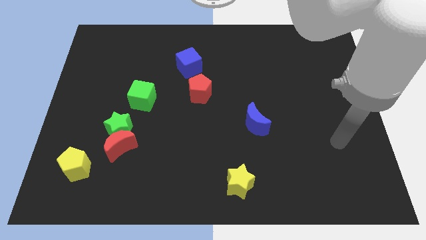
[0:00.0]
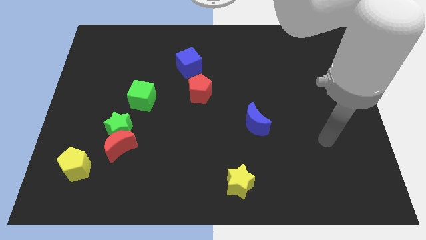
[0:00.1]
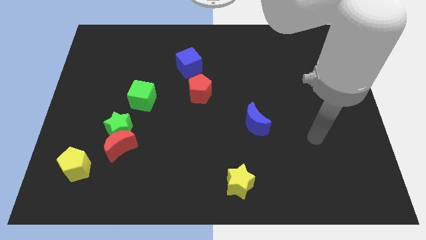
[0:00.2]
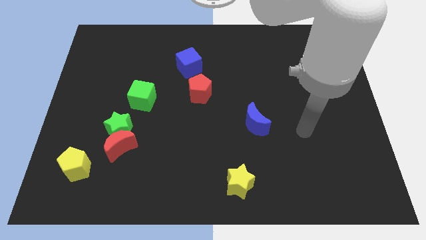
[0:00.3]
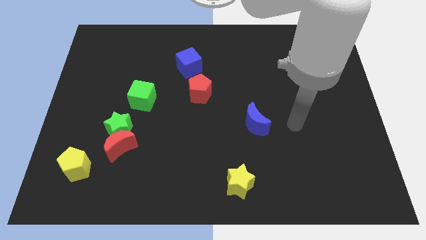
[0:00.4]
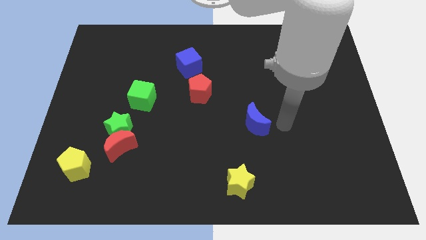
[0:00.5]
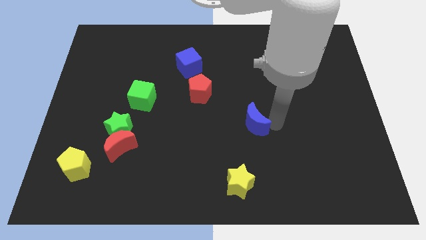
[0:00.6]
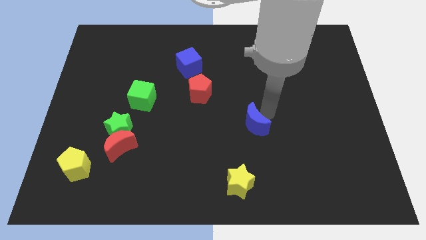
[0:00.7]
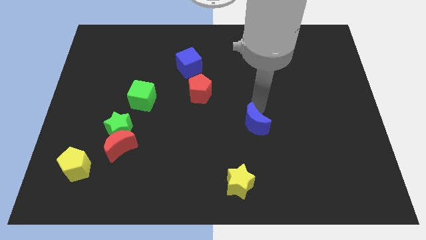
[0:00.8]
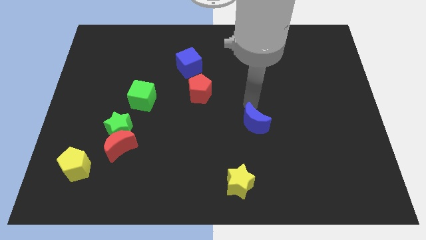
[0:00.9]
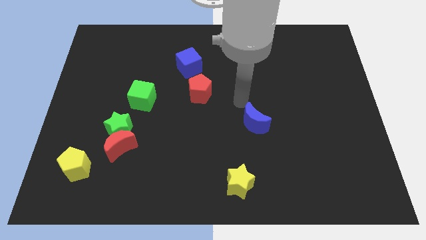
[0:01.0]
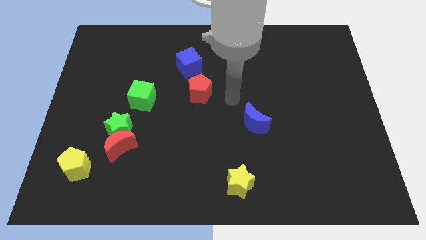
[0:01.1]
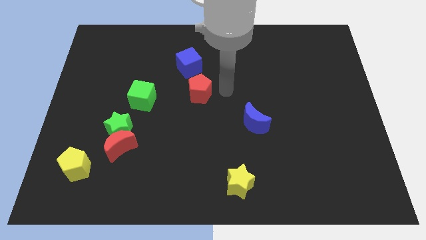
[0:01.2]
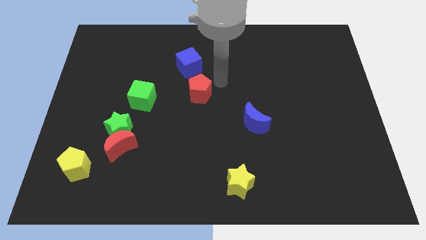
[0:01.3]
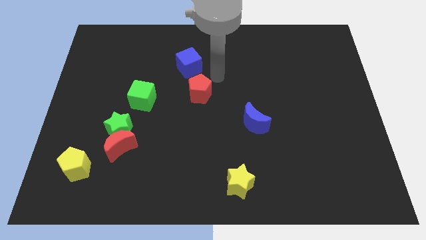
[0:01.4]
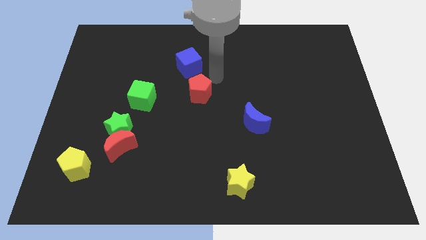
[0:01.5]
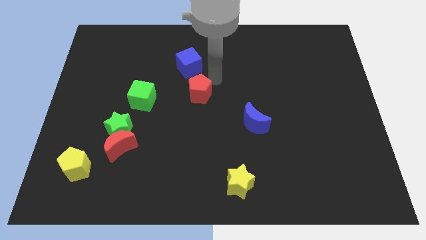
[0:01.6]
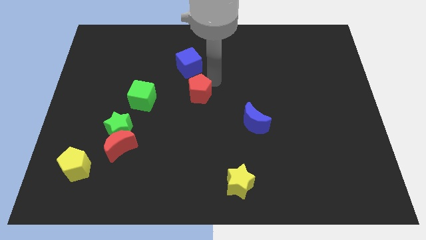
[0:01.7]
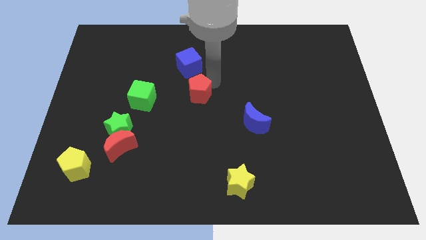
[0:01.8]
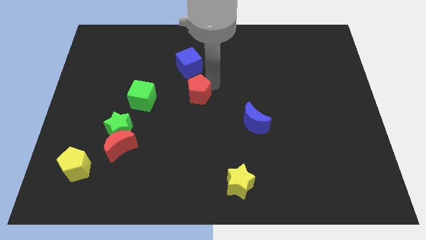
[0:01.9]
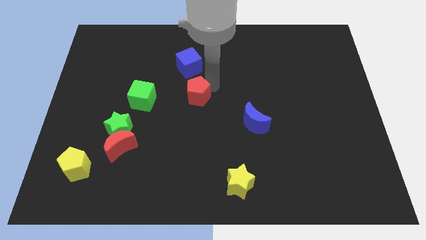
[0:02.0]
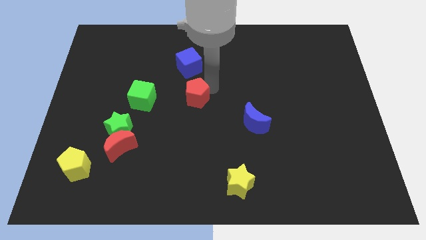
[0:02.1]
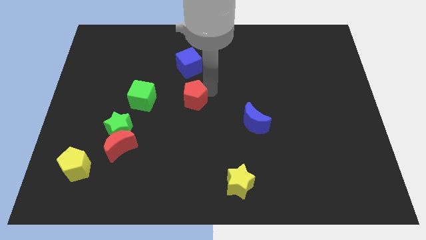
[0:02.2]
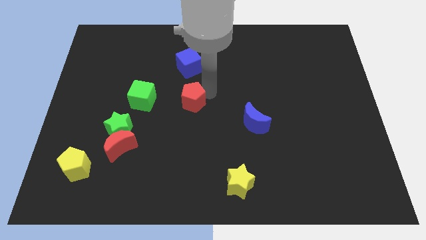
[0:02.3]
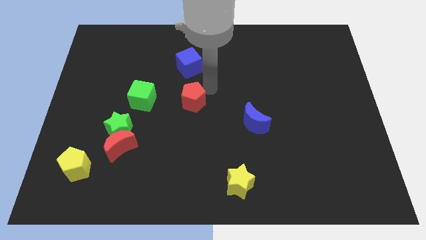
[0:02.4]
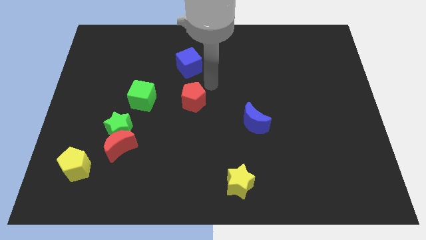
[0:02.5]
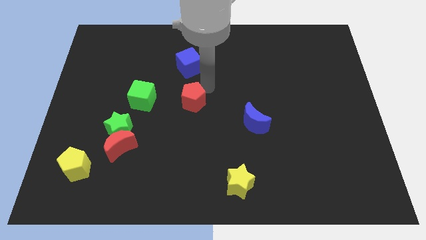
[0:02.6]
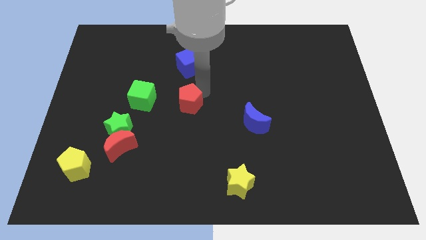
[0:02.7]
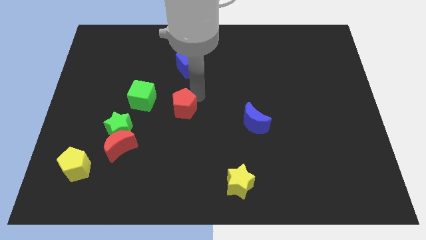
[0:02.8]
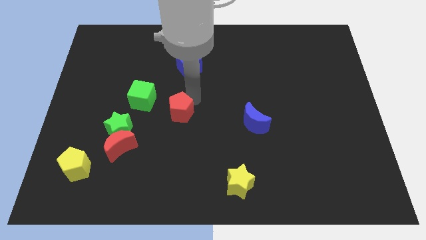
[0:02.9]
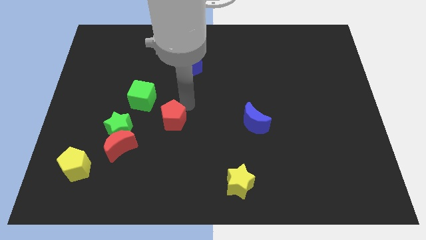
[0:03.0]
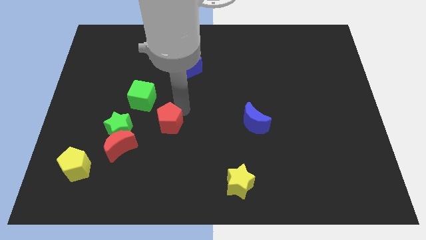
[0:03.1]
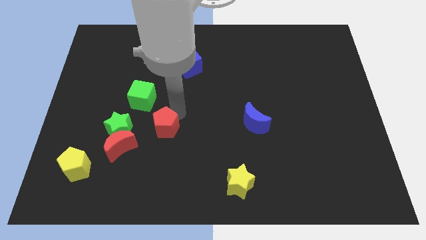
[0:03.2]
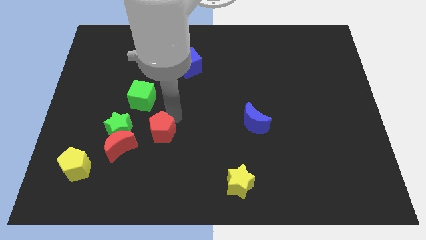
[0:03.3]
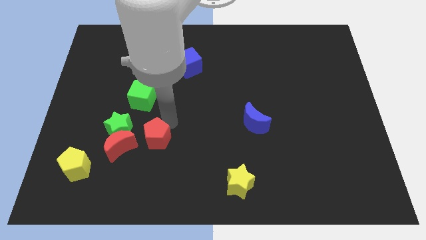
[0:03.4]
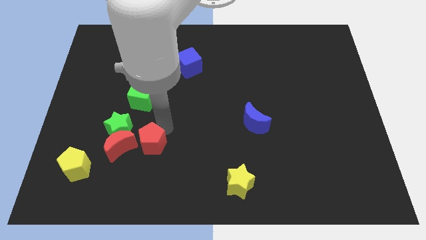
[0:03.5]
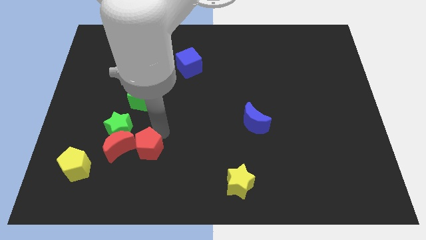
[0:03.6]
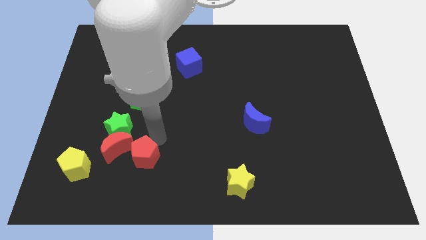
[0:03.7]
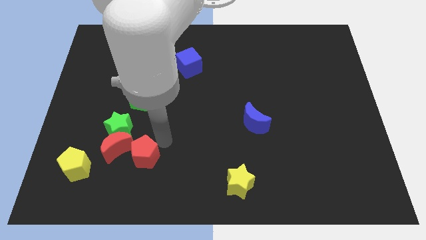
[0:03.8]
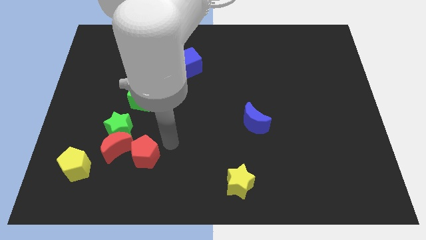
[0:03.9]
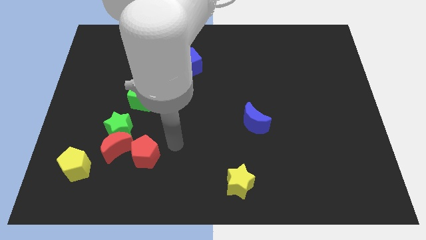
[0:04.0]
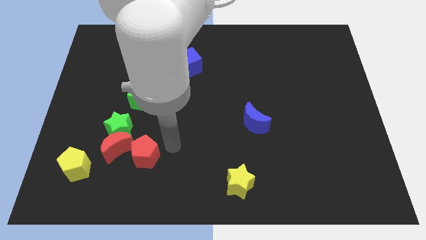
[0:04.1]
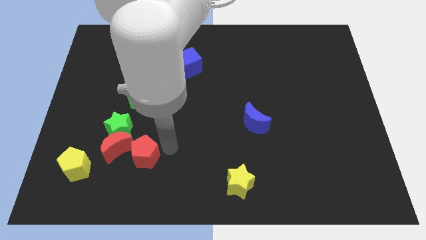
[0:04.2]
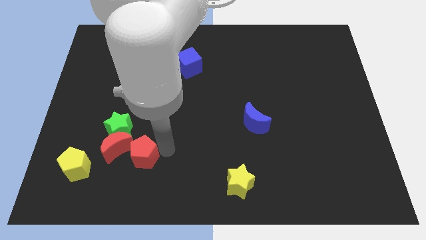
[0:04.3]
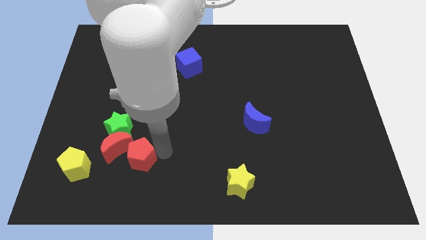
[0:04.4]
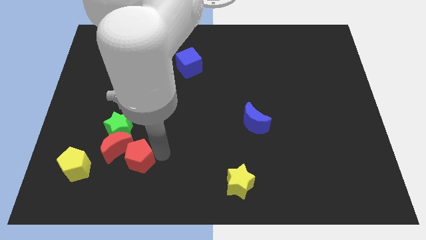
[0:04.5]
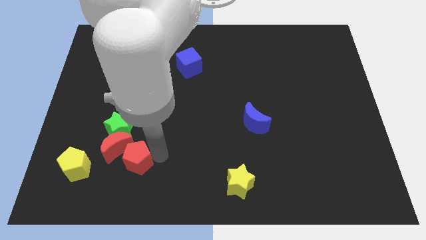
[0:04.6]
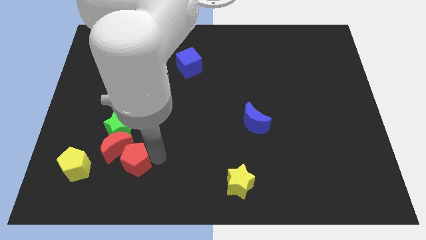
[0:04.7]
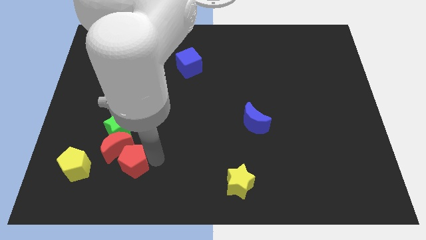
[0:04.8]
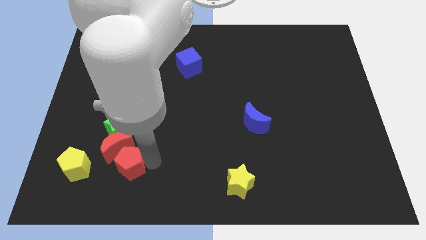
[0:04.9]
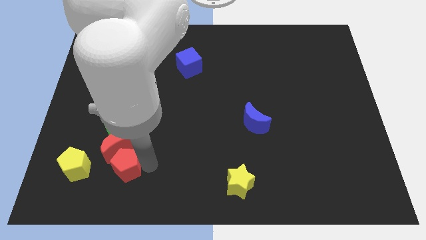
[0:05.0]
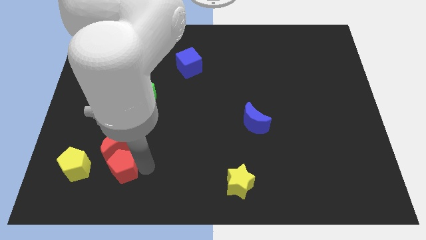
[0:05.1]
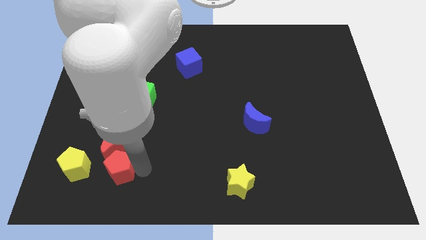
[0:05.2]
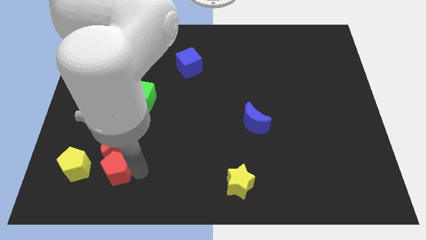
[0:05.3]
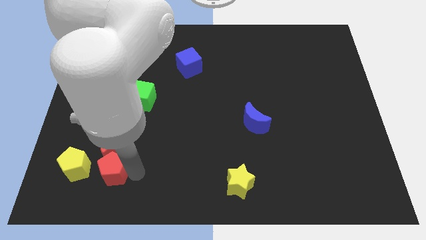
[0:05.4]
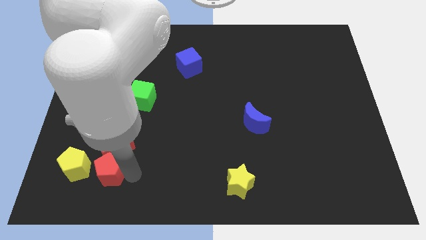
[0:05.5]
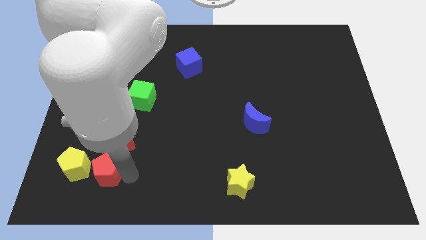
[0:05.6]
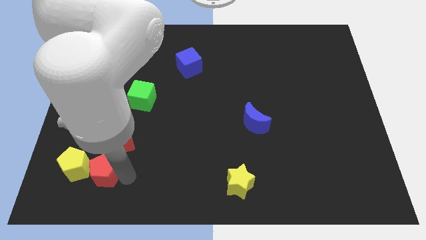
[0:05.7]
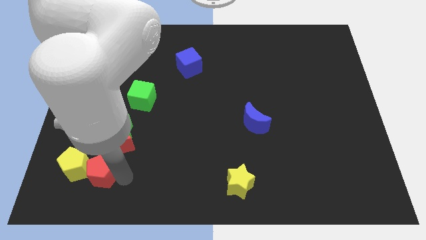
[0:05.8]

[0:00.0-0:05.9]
put the red pentagon close to the yellow pentagon

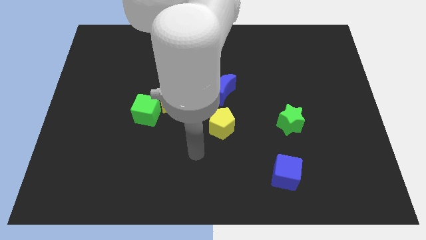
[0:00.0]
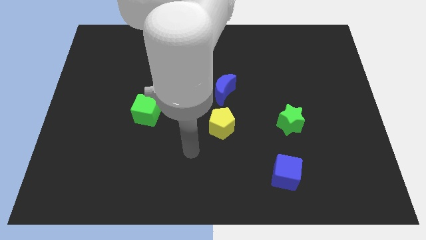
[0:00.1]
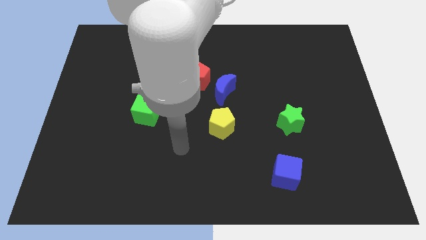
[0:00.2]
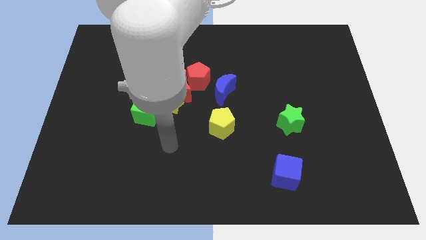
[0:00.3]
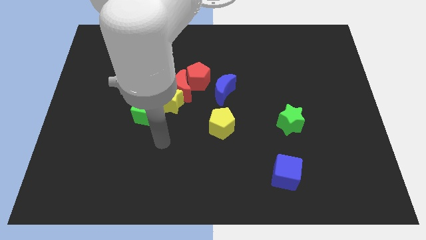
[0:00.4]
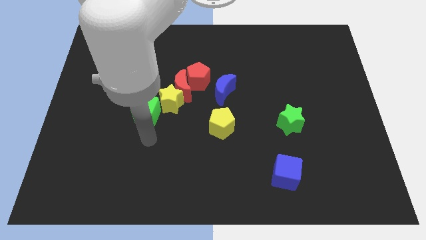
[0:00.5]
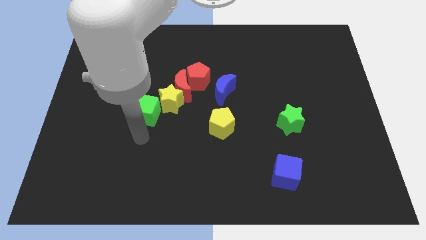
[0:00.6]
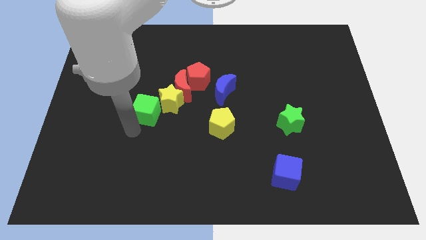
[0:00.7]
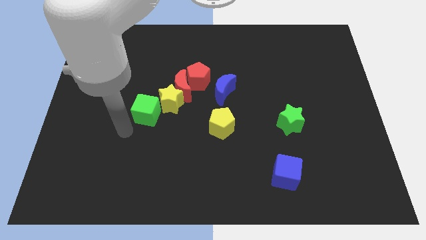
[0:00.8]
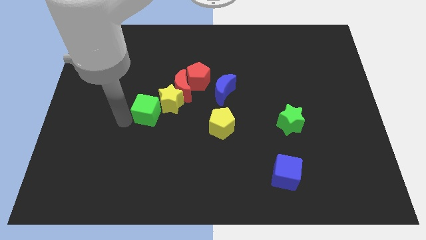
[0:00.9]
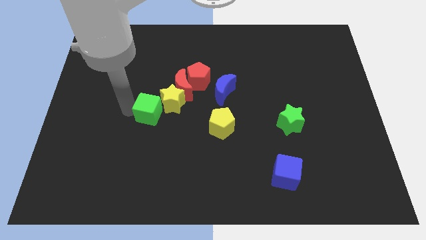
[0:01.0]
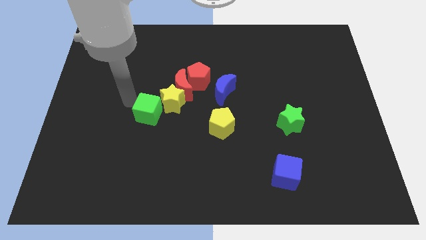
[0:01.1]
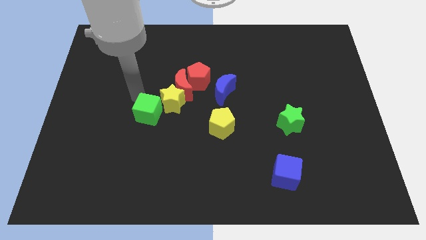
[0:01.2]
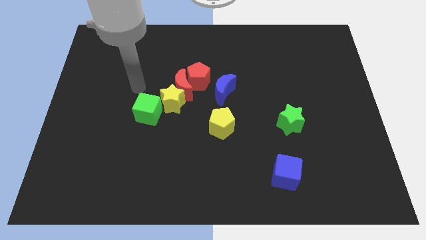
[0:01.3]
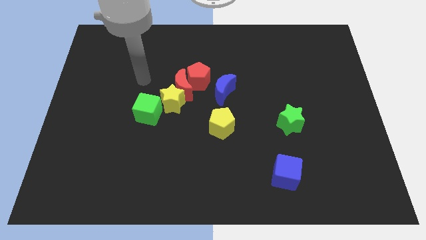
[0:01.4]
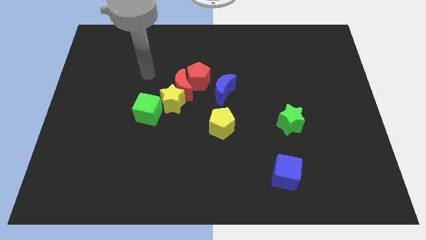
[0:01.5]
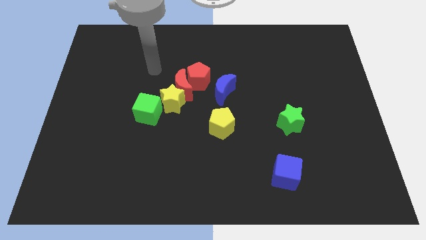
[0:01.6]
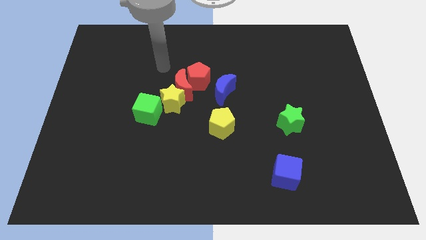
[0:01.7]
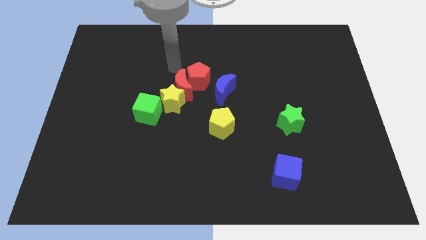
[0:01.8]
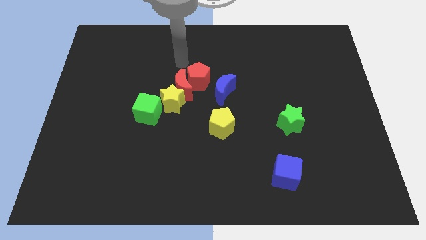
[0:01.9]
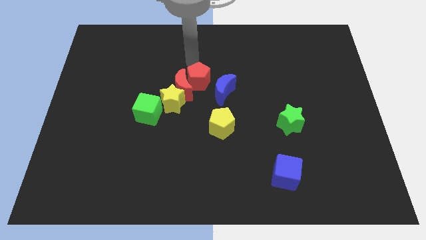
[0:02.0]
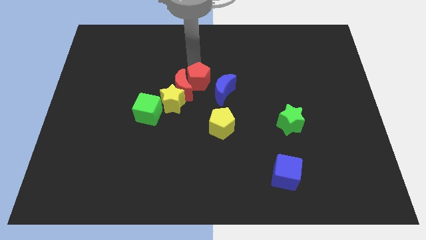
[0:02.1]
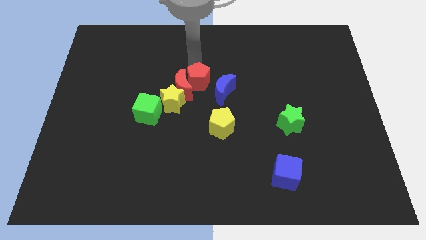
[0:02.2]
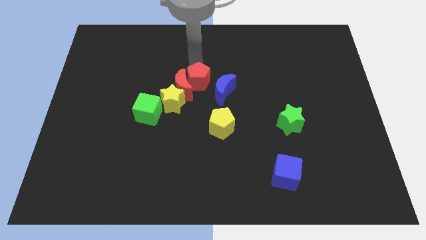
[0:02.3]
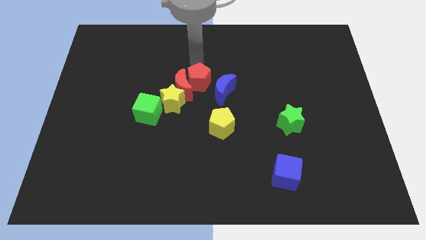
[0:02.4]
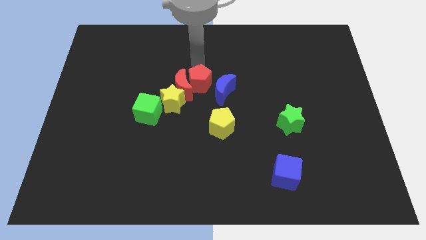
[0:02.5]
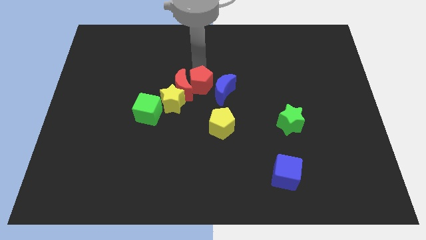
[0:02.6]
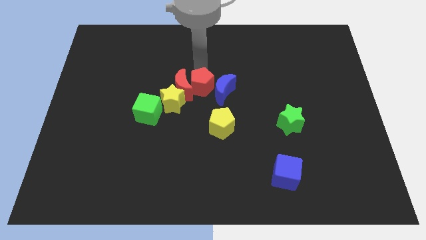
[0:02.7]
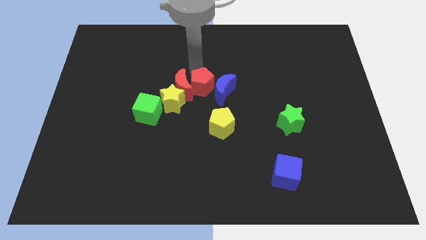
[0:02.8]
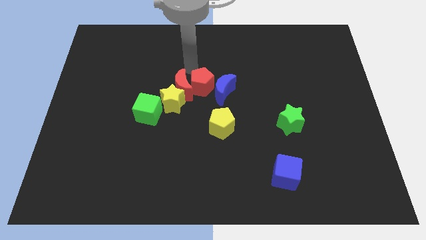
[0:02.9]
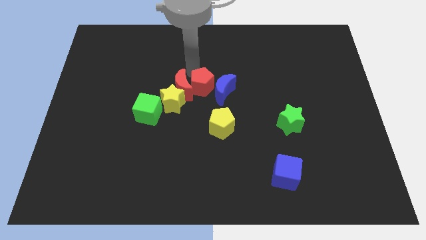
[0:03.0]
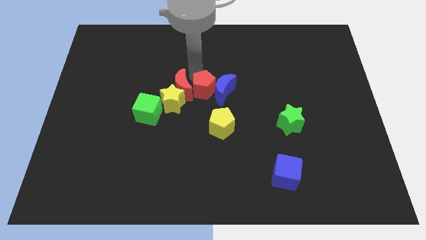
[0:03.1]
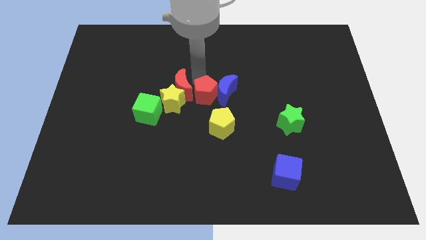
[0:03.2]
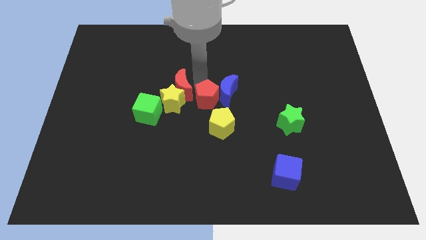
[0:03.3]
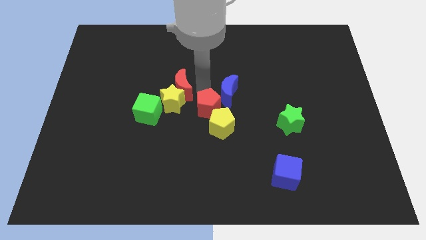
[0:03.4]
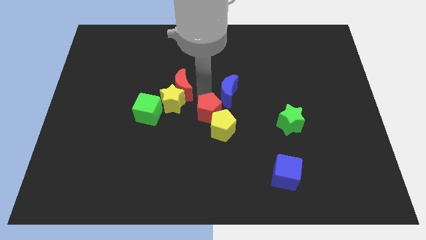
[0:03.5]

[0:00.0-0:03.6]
move the red pentagon to the yellow pentagon
